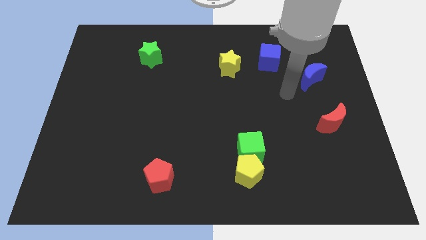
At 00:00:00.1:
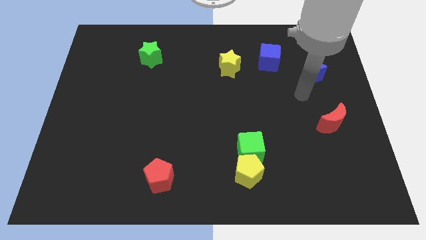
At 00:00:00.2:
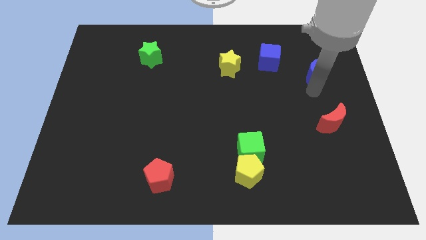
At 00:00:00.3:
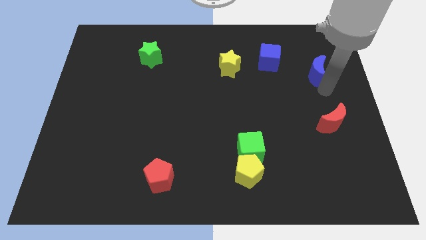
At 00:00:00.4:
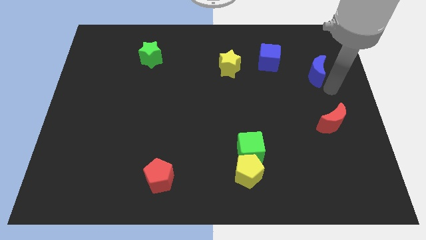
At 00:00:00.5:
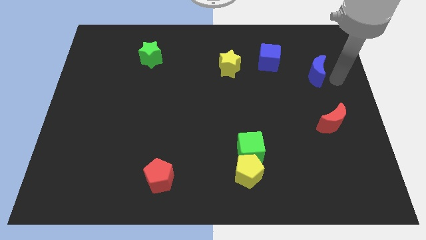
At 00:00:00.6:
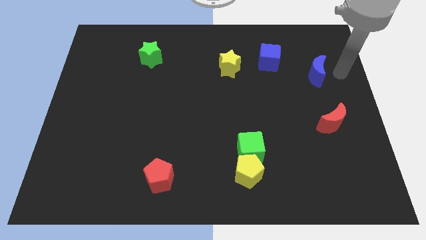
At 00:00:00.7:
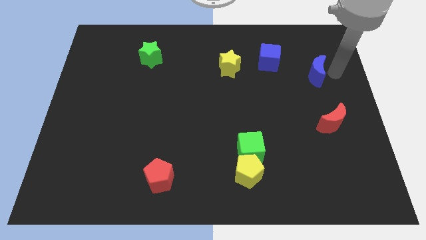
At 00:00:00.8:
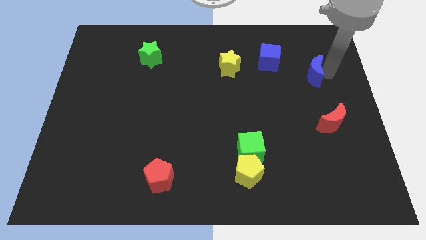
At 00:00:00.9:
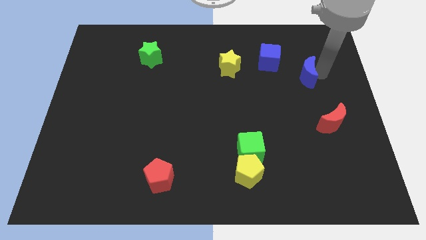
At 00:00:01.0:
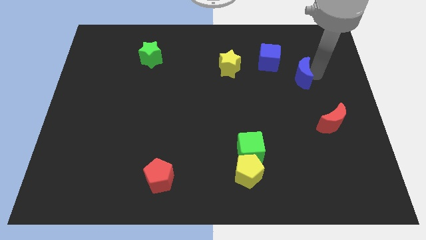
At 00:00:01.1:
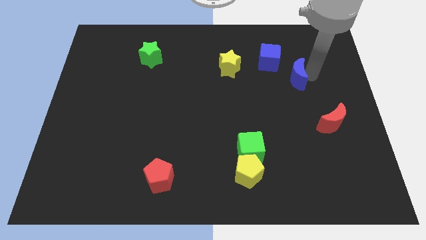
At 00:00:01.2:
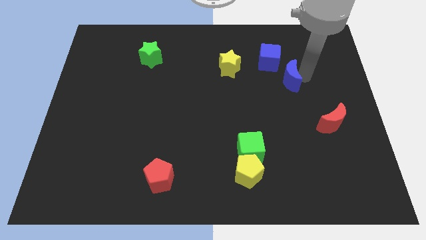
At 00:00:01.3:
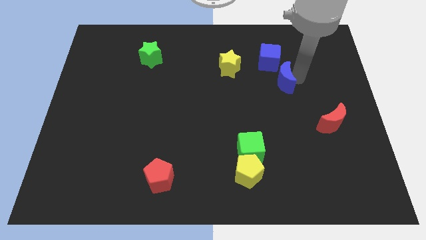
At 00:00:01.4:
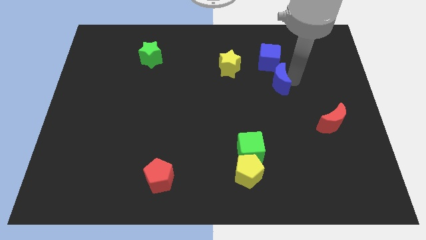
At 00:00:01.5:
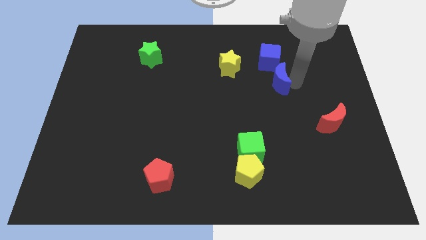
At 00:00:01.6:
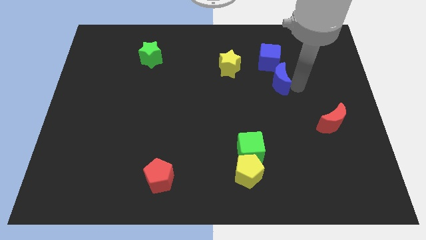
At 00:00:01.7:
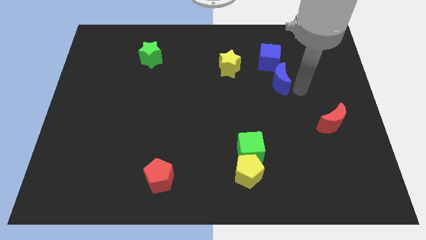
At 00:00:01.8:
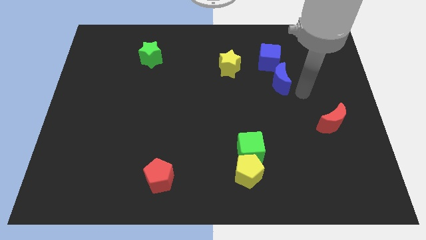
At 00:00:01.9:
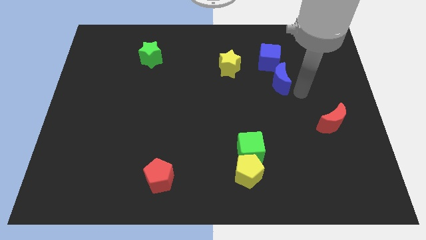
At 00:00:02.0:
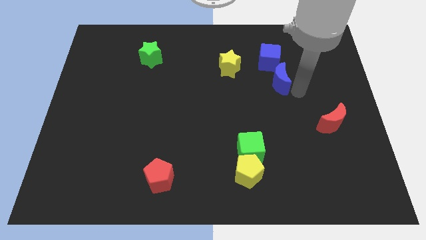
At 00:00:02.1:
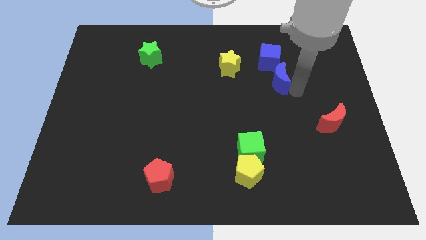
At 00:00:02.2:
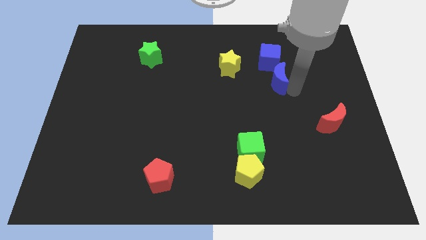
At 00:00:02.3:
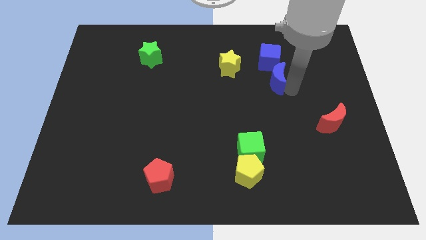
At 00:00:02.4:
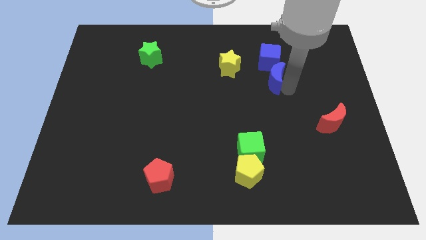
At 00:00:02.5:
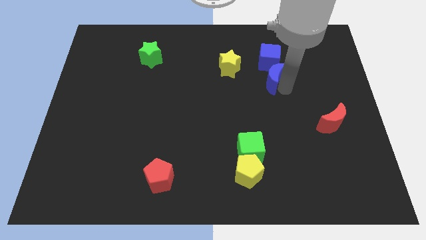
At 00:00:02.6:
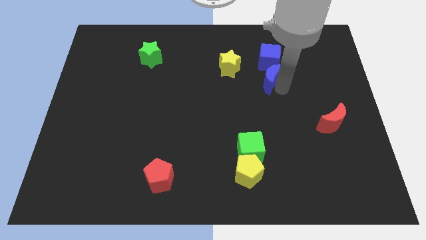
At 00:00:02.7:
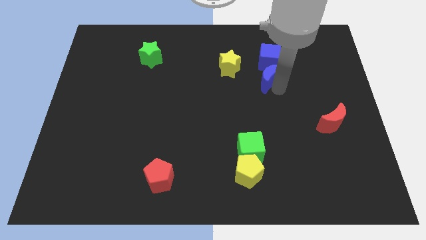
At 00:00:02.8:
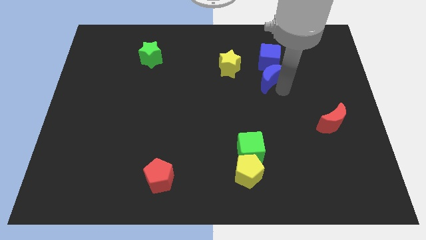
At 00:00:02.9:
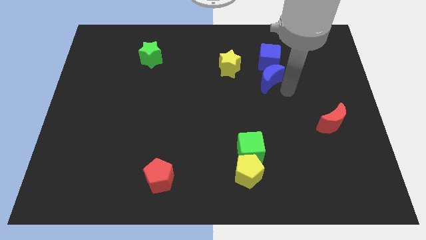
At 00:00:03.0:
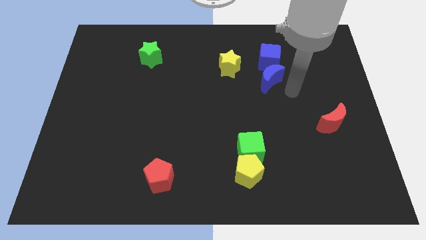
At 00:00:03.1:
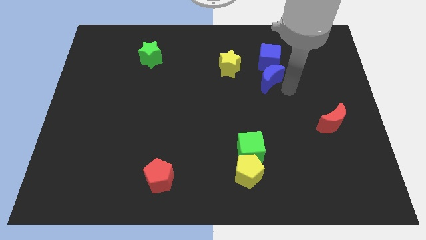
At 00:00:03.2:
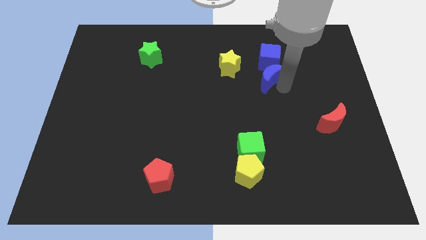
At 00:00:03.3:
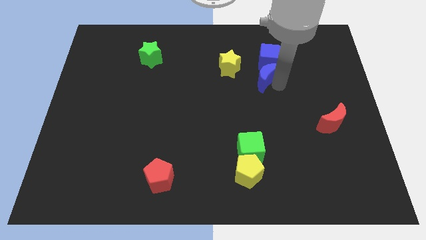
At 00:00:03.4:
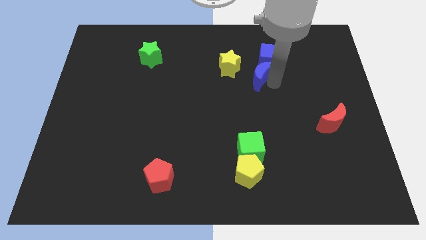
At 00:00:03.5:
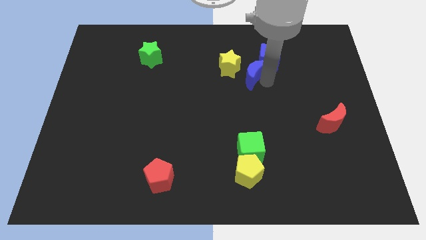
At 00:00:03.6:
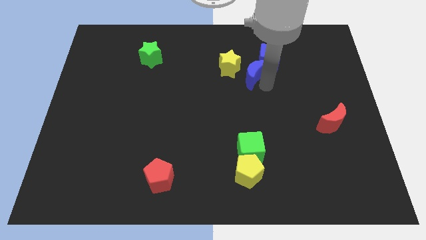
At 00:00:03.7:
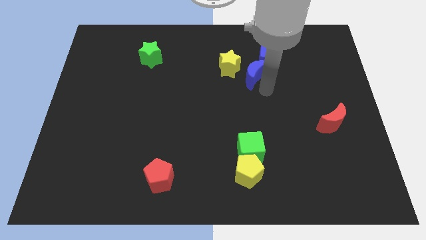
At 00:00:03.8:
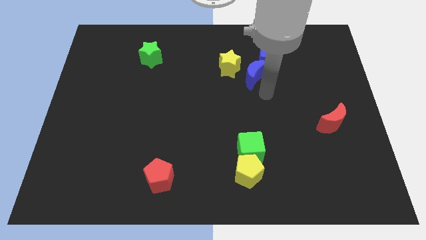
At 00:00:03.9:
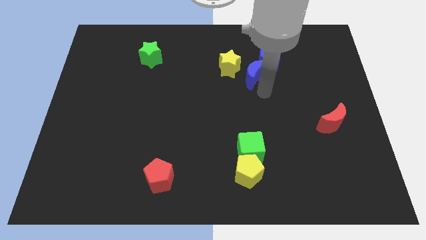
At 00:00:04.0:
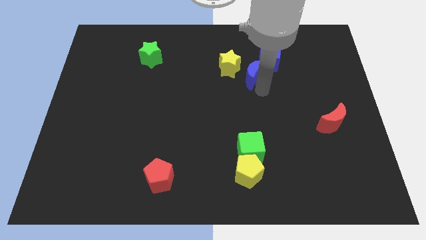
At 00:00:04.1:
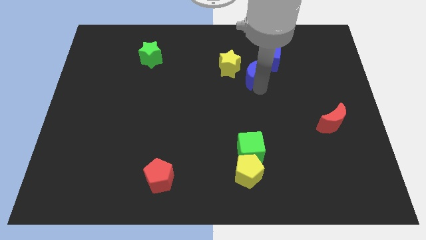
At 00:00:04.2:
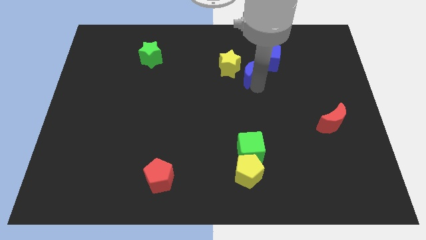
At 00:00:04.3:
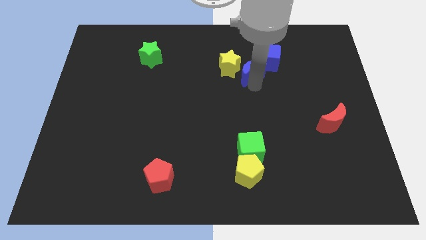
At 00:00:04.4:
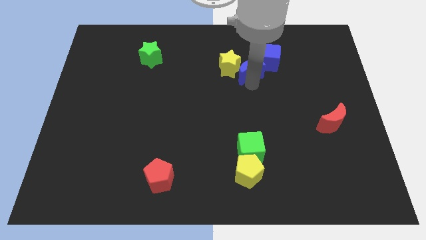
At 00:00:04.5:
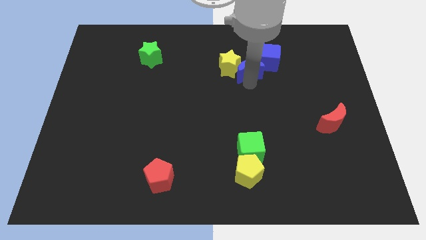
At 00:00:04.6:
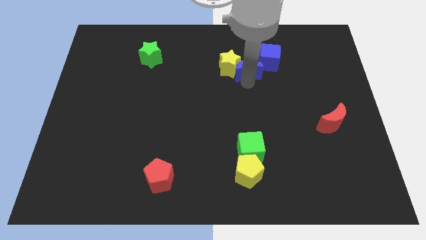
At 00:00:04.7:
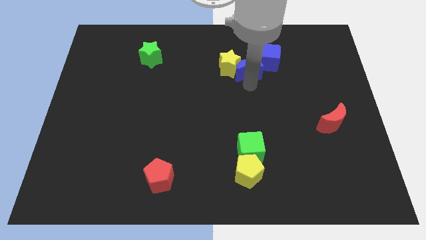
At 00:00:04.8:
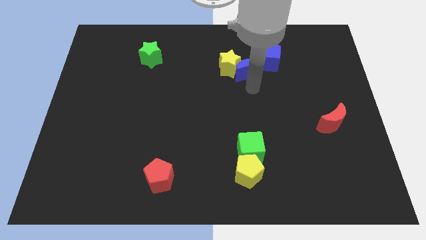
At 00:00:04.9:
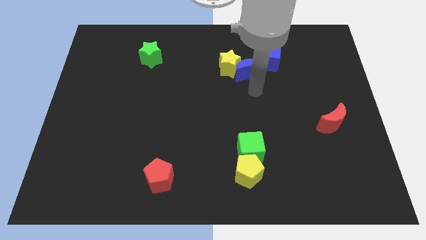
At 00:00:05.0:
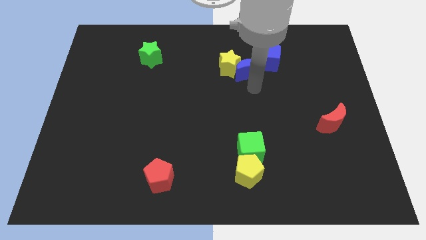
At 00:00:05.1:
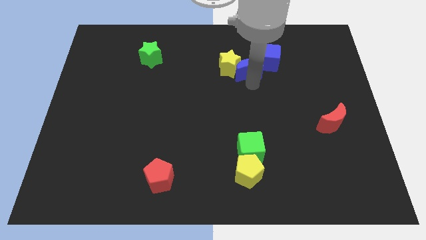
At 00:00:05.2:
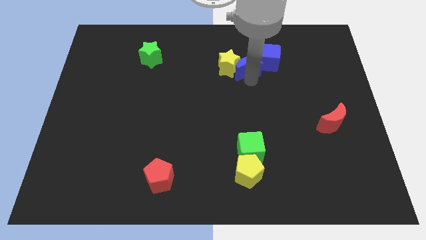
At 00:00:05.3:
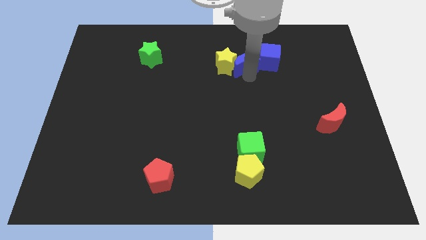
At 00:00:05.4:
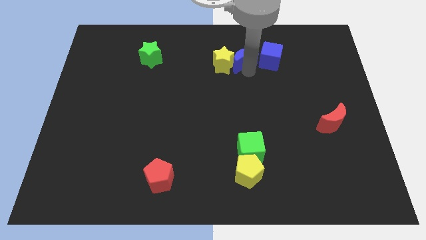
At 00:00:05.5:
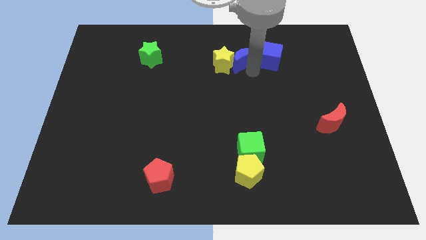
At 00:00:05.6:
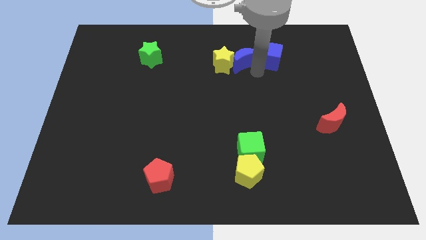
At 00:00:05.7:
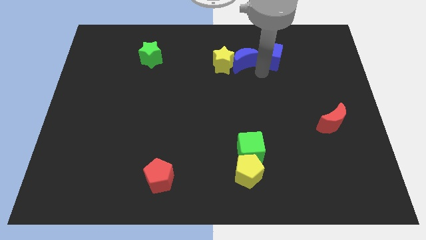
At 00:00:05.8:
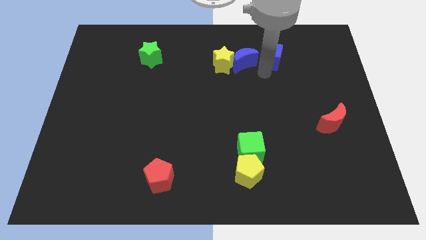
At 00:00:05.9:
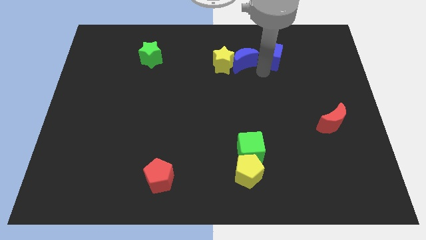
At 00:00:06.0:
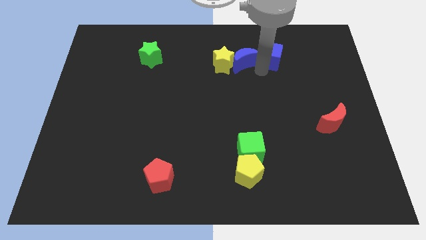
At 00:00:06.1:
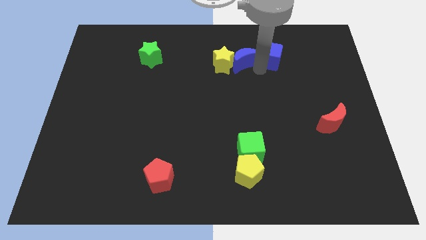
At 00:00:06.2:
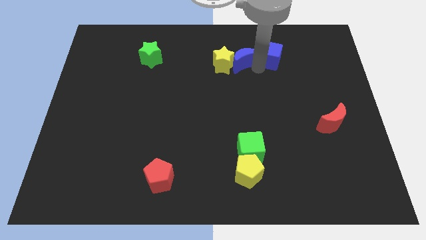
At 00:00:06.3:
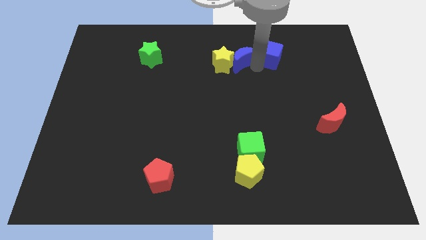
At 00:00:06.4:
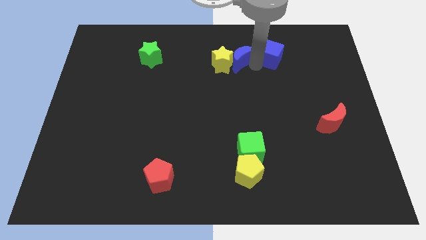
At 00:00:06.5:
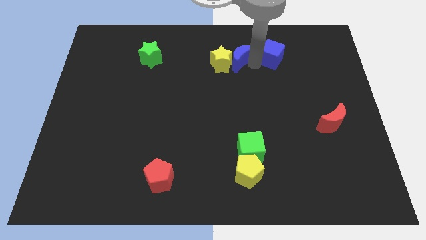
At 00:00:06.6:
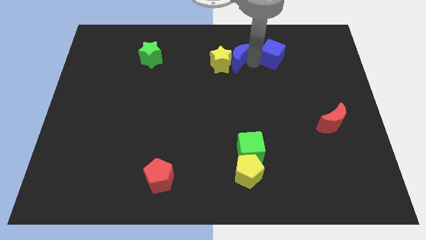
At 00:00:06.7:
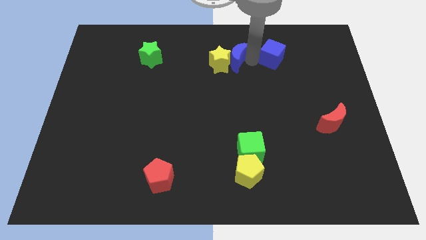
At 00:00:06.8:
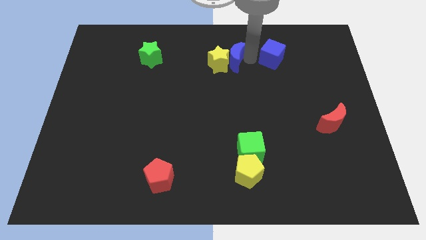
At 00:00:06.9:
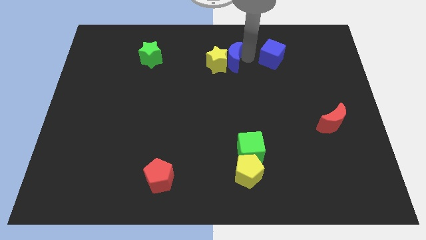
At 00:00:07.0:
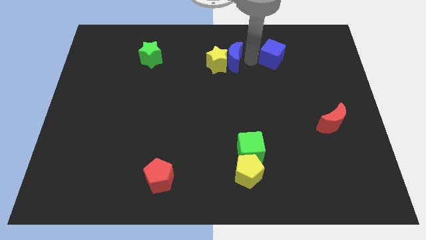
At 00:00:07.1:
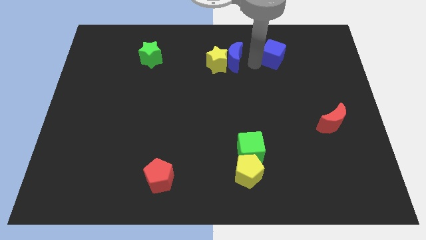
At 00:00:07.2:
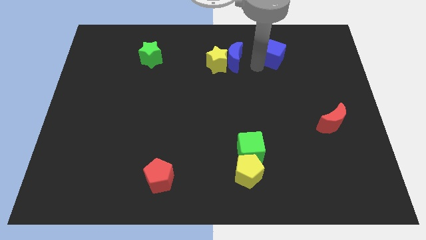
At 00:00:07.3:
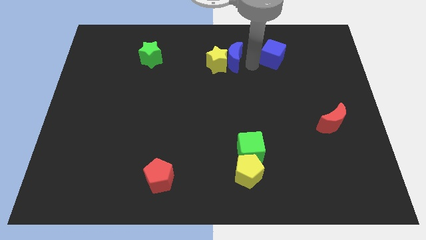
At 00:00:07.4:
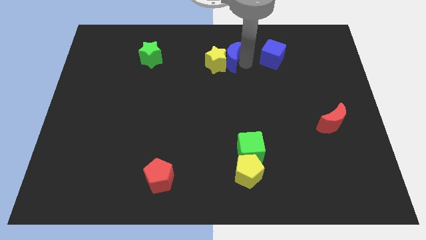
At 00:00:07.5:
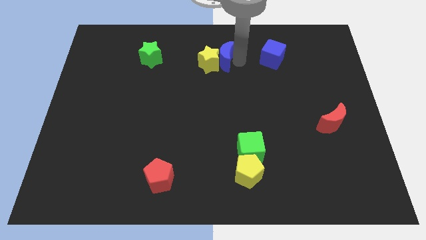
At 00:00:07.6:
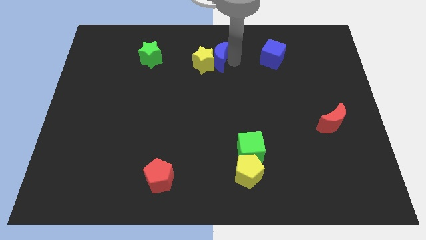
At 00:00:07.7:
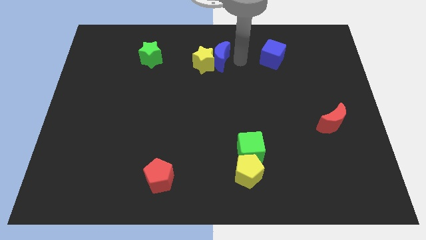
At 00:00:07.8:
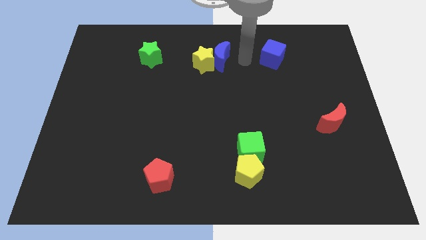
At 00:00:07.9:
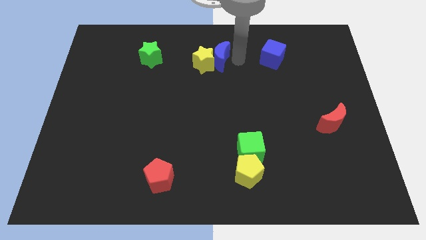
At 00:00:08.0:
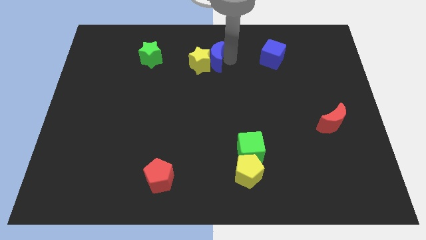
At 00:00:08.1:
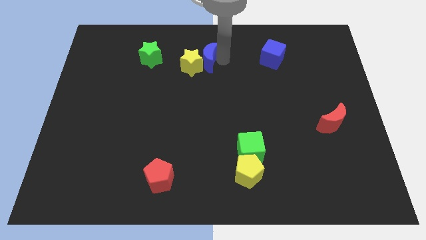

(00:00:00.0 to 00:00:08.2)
push the blue moon right of the green star
